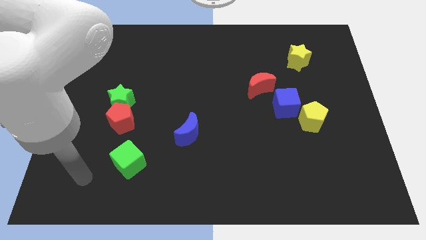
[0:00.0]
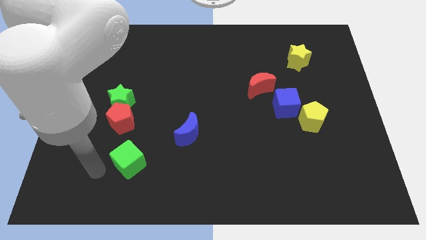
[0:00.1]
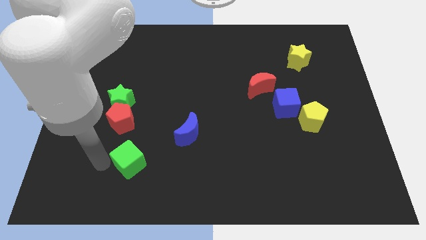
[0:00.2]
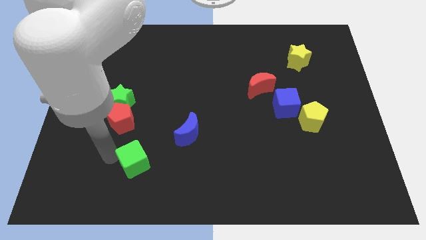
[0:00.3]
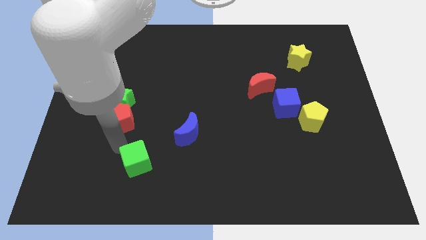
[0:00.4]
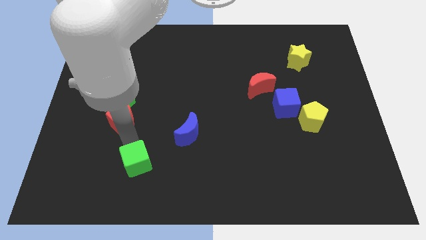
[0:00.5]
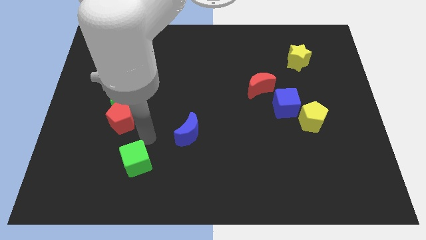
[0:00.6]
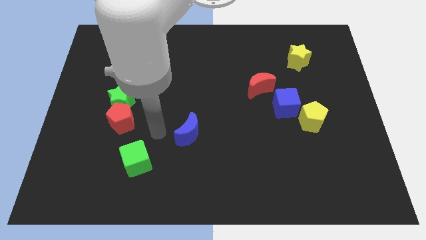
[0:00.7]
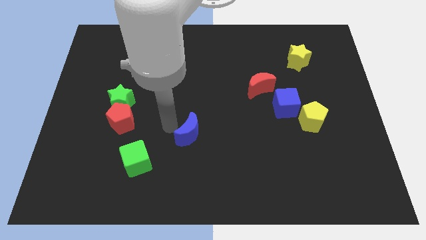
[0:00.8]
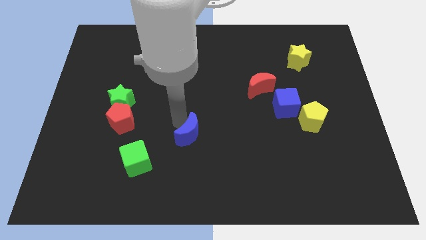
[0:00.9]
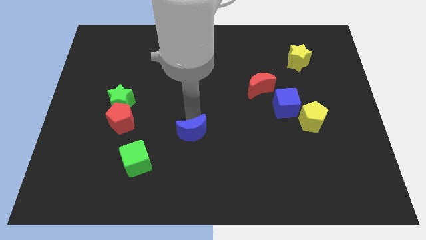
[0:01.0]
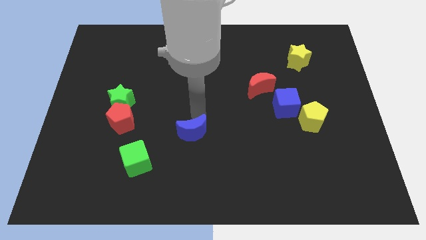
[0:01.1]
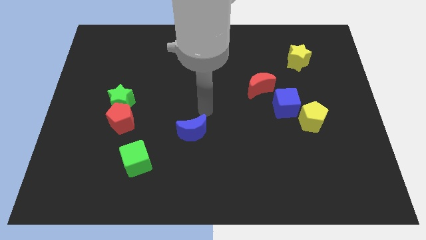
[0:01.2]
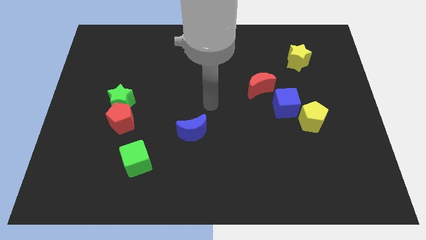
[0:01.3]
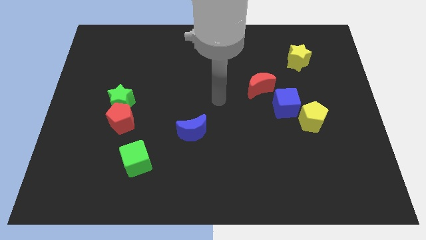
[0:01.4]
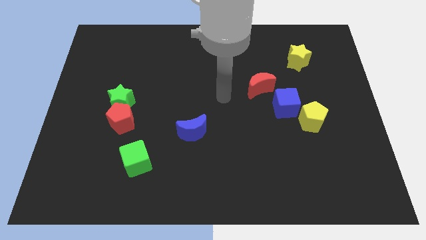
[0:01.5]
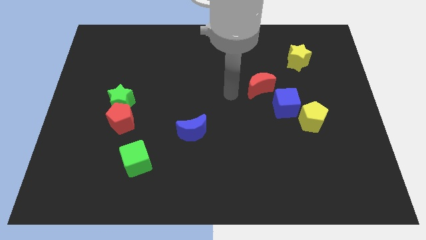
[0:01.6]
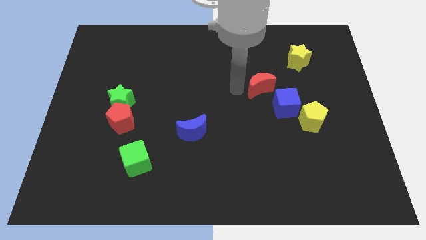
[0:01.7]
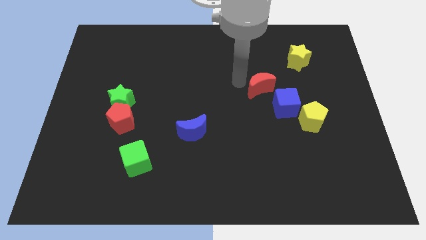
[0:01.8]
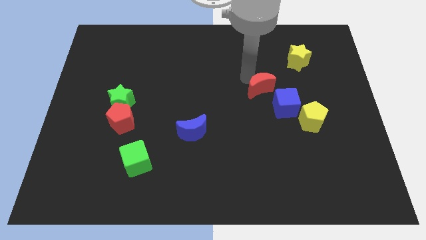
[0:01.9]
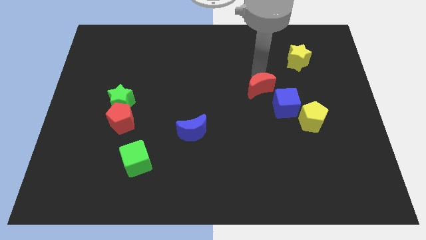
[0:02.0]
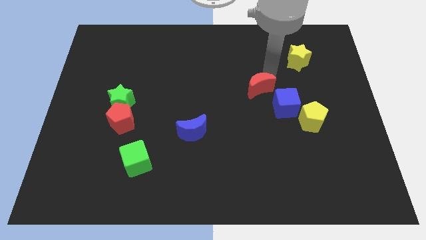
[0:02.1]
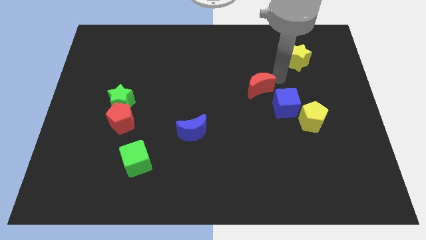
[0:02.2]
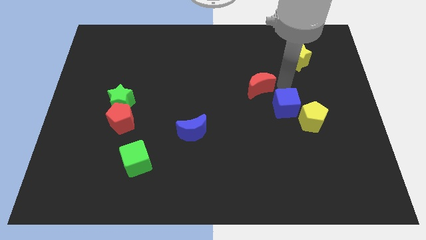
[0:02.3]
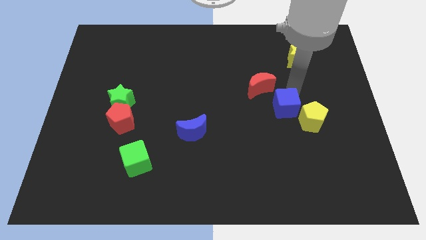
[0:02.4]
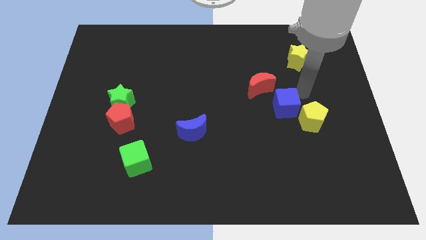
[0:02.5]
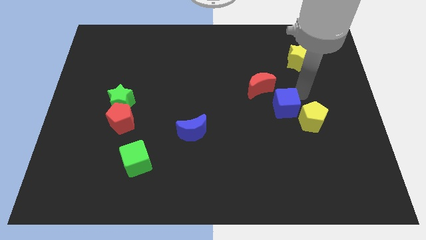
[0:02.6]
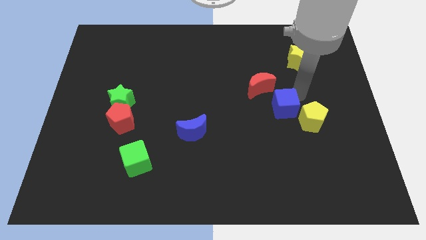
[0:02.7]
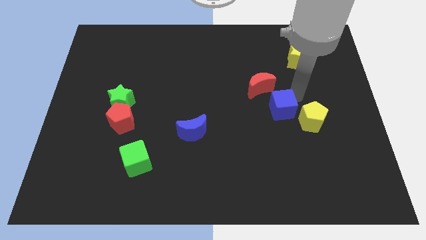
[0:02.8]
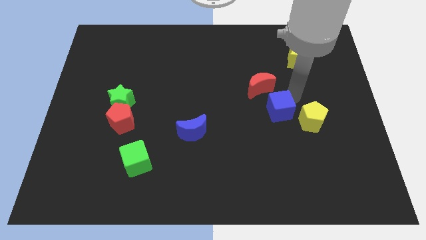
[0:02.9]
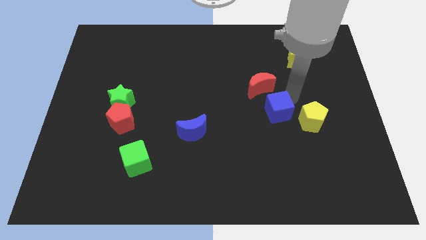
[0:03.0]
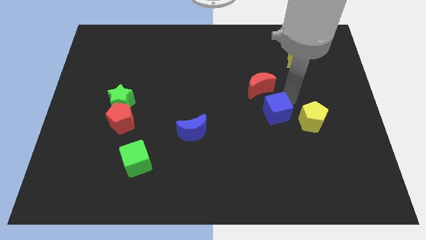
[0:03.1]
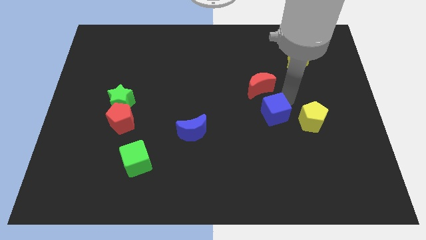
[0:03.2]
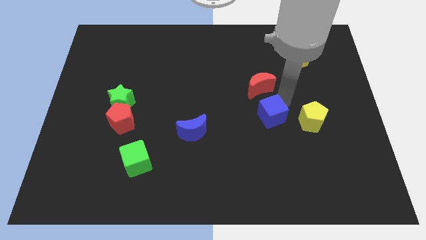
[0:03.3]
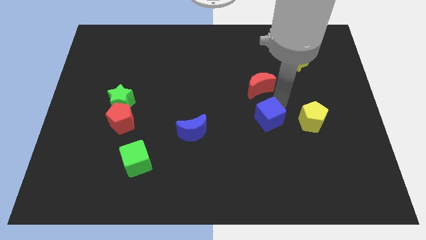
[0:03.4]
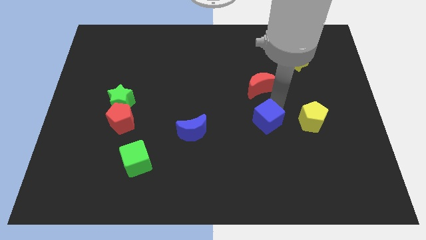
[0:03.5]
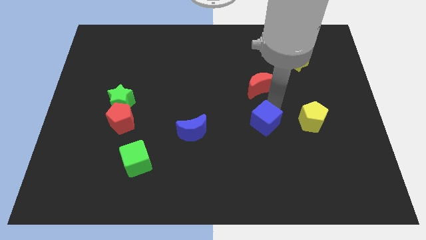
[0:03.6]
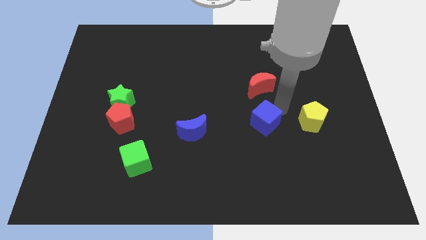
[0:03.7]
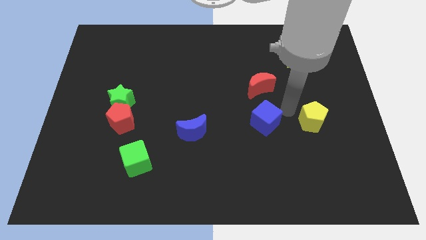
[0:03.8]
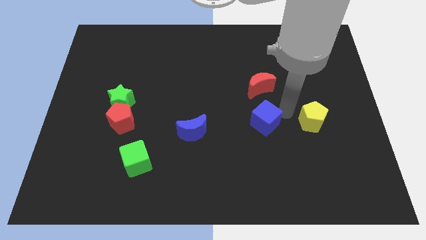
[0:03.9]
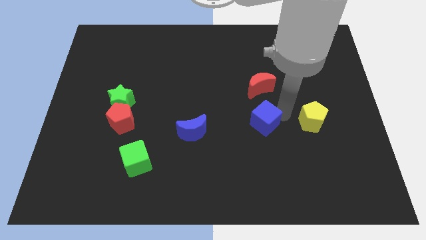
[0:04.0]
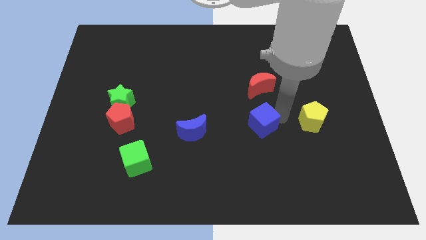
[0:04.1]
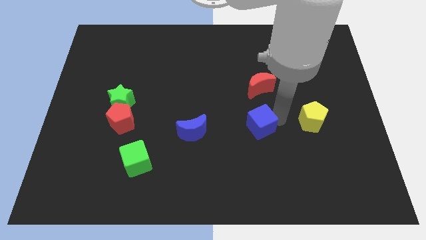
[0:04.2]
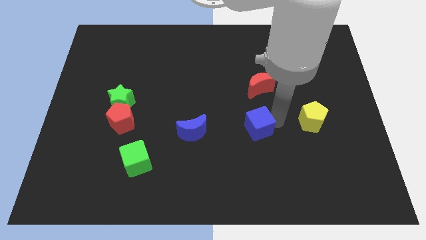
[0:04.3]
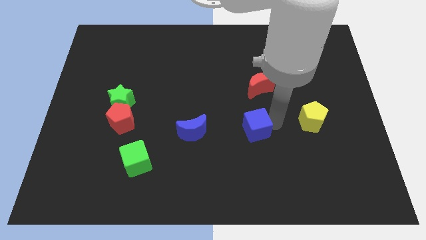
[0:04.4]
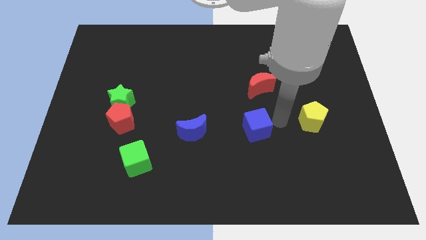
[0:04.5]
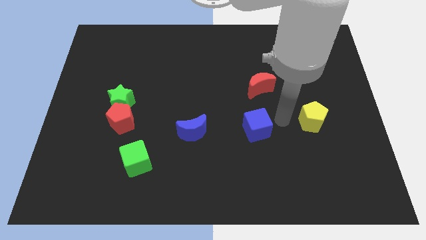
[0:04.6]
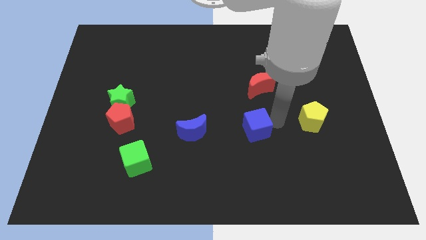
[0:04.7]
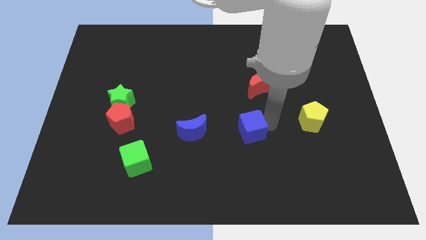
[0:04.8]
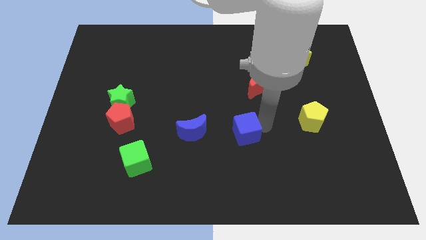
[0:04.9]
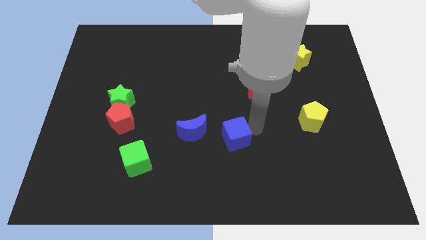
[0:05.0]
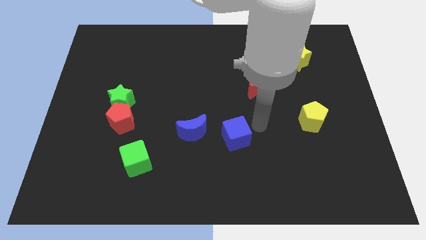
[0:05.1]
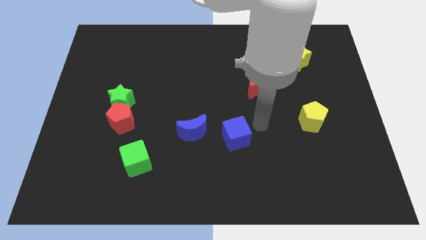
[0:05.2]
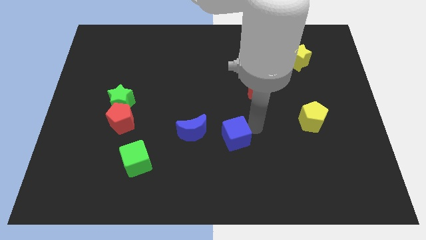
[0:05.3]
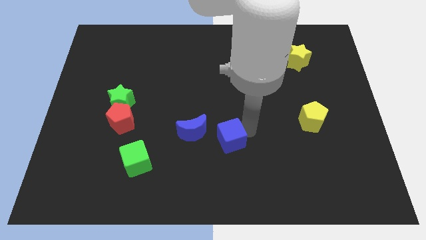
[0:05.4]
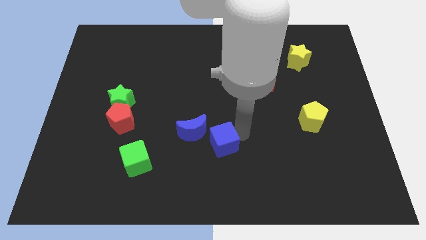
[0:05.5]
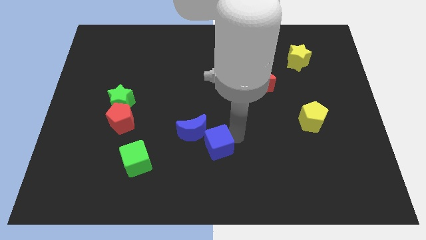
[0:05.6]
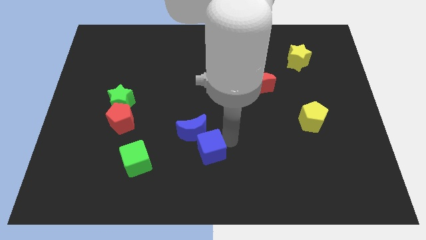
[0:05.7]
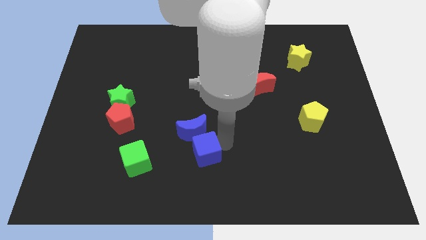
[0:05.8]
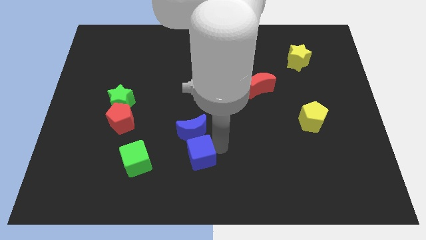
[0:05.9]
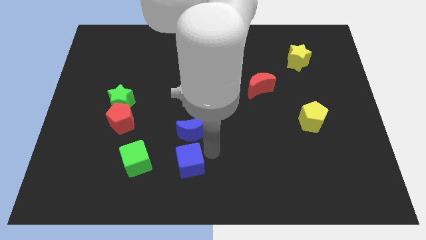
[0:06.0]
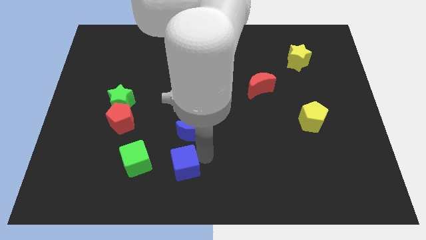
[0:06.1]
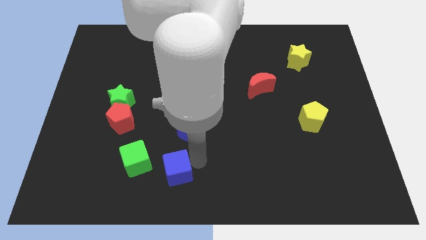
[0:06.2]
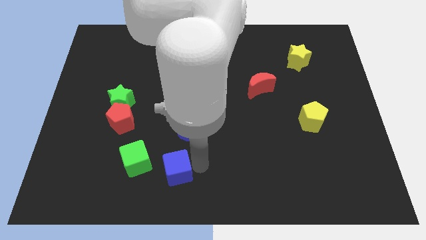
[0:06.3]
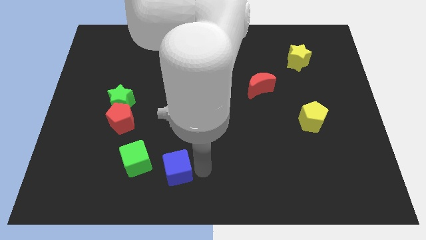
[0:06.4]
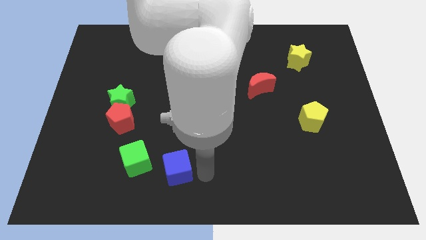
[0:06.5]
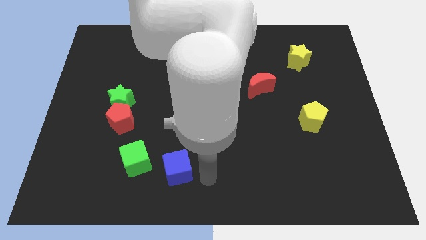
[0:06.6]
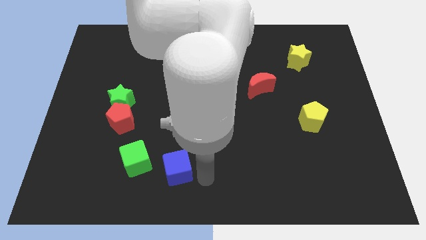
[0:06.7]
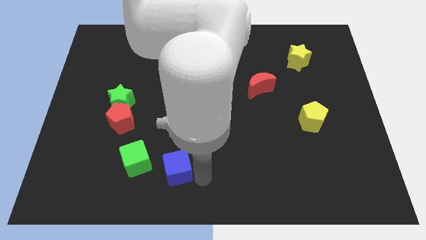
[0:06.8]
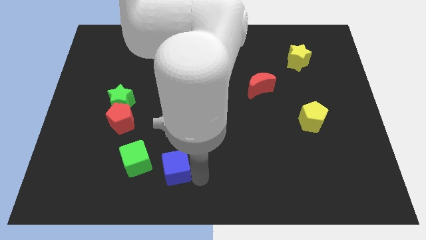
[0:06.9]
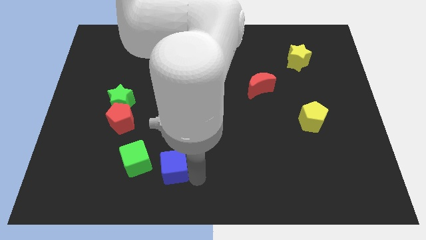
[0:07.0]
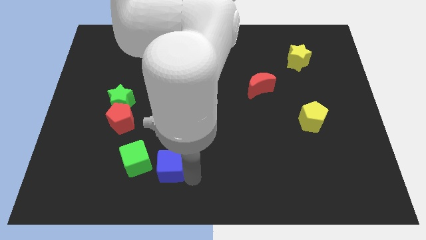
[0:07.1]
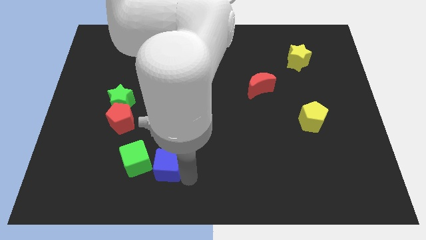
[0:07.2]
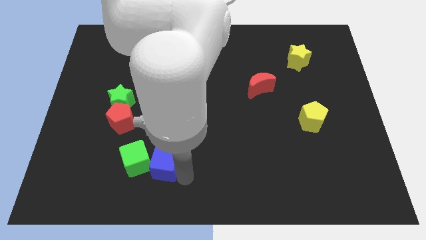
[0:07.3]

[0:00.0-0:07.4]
push the blue cube towards the green cube
